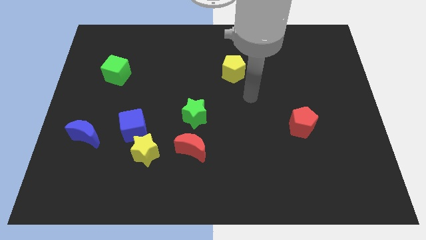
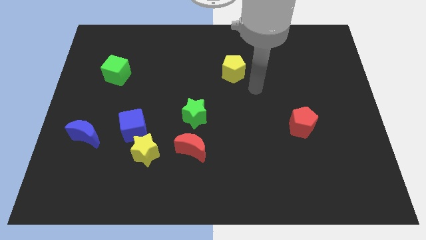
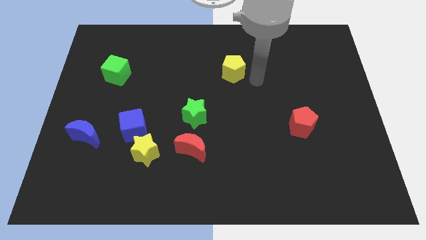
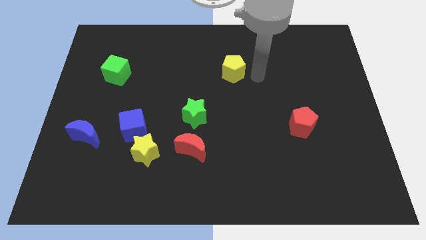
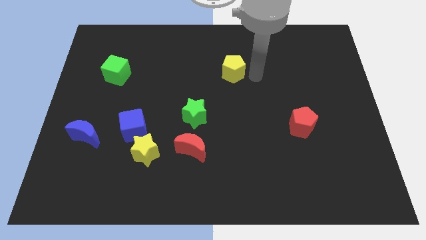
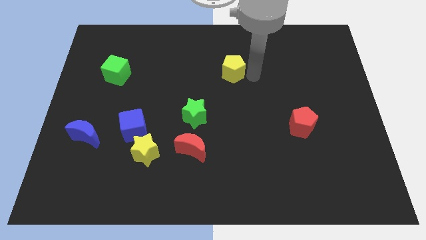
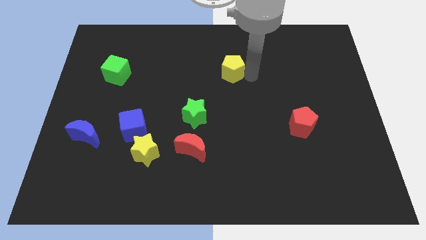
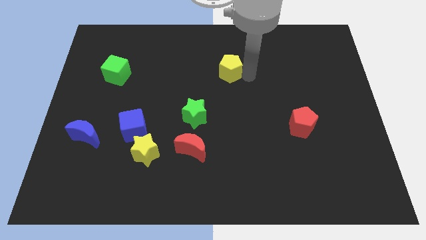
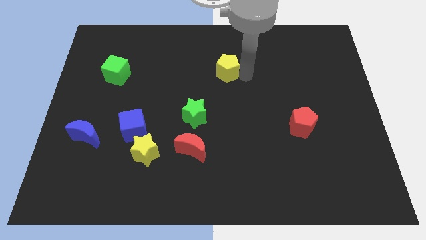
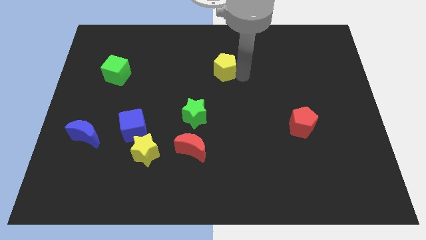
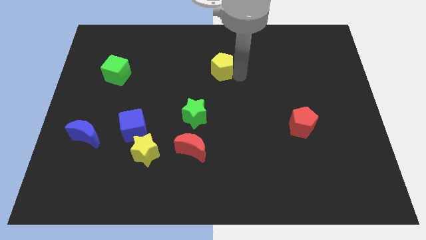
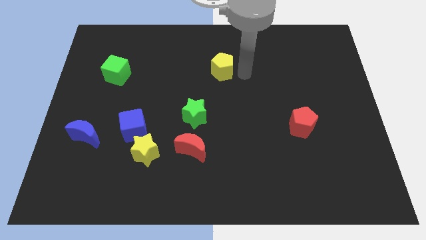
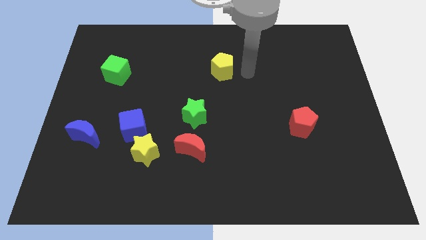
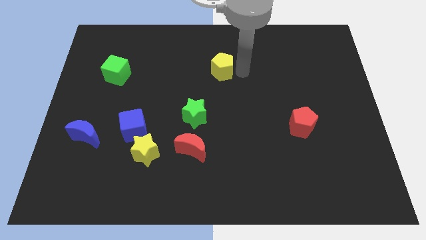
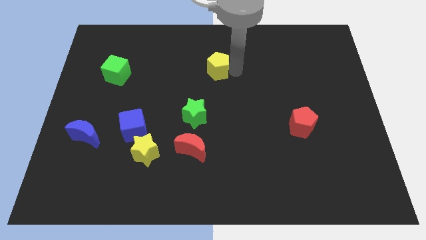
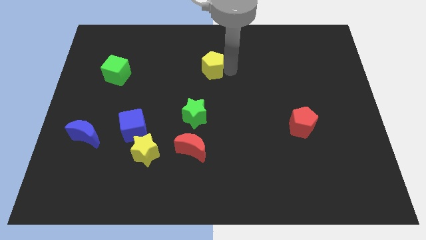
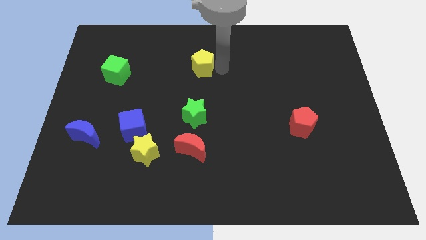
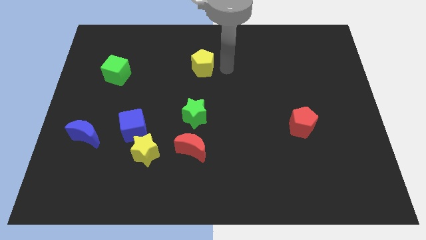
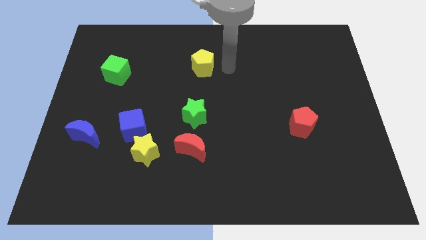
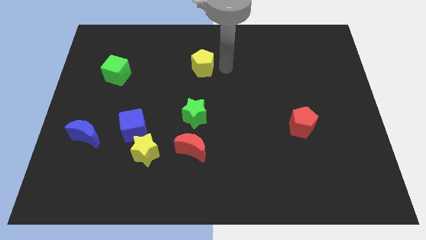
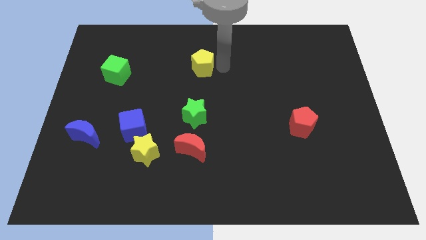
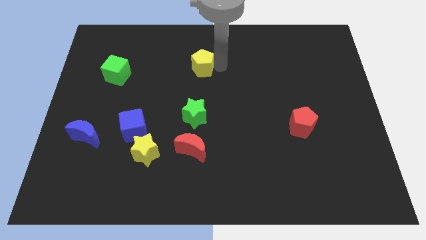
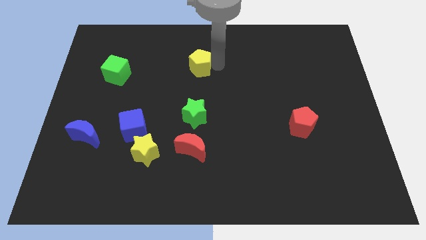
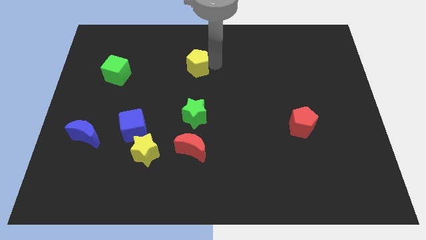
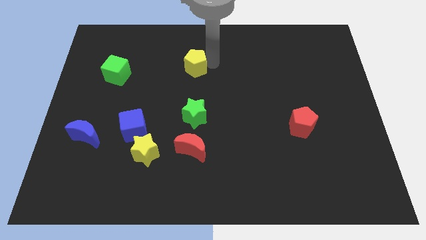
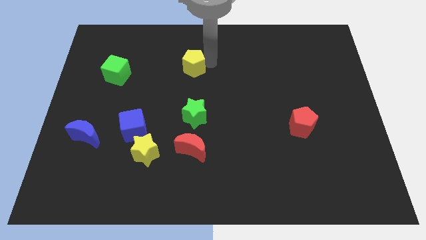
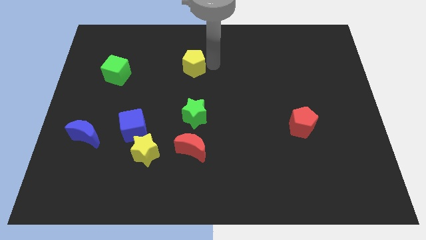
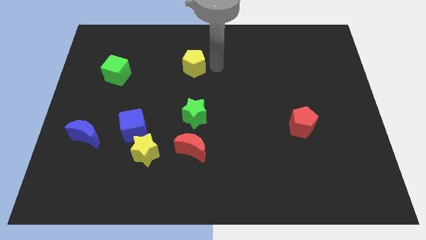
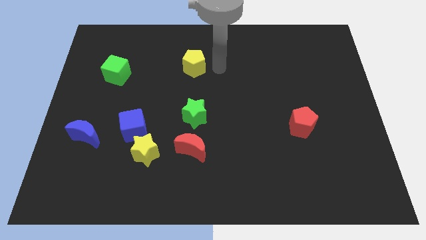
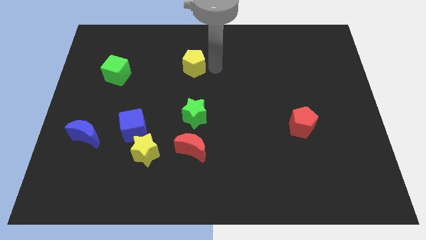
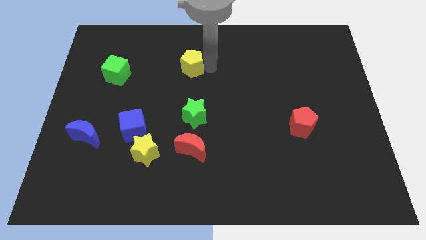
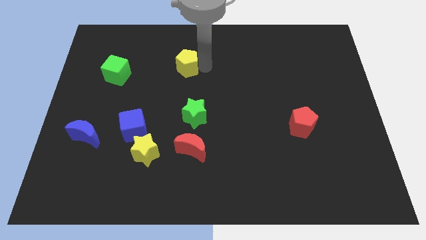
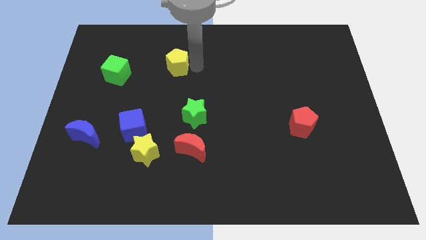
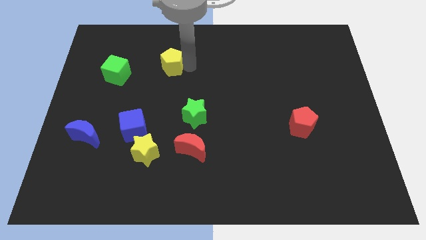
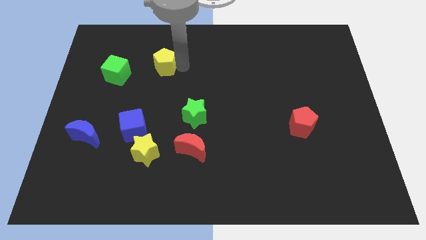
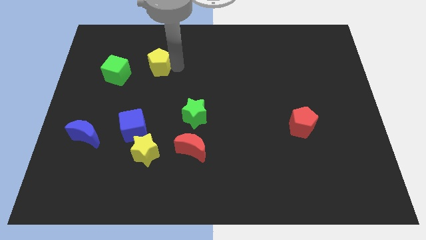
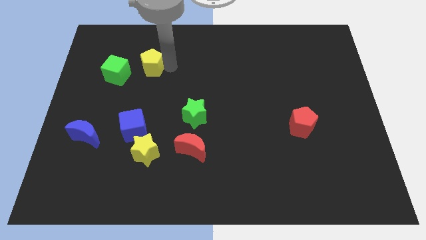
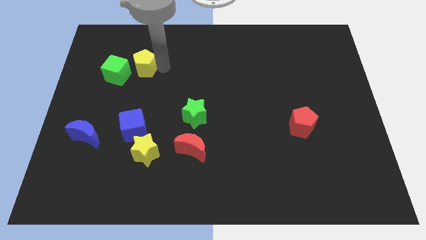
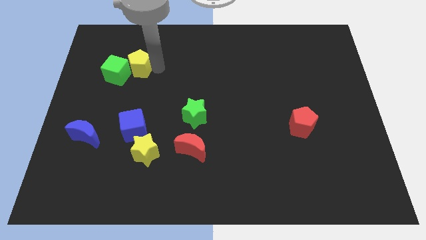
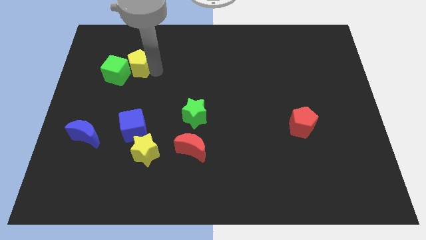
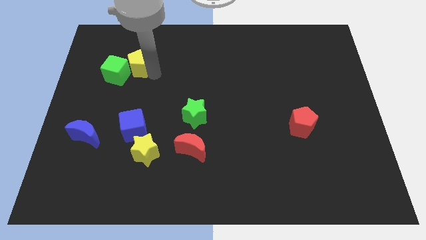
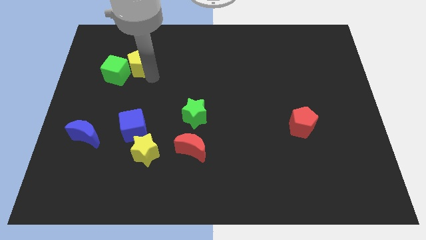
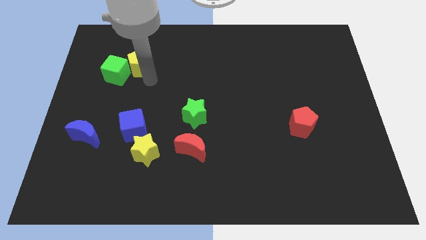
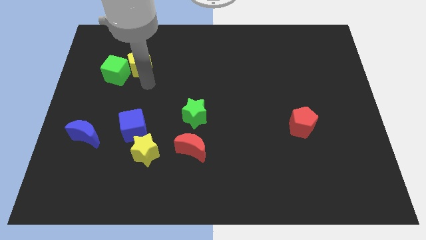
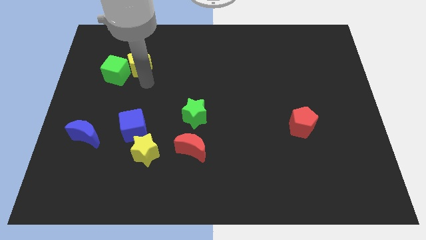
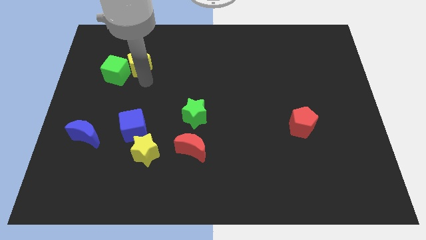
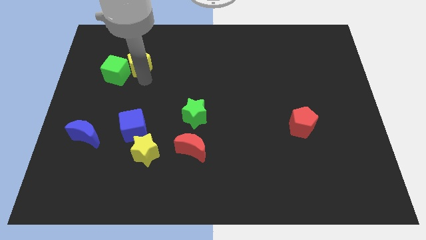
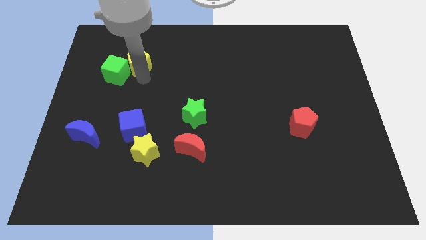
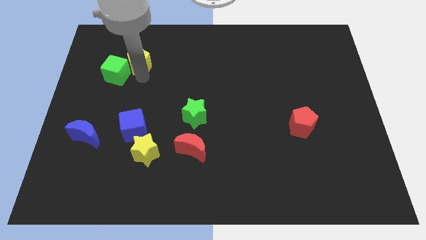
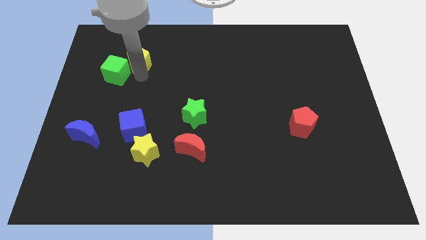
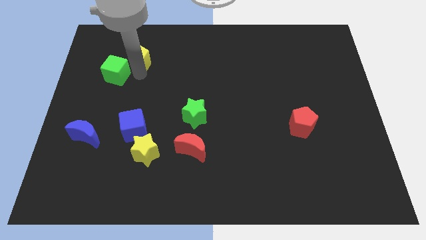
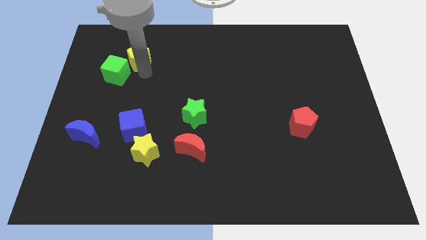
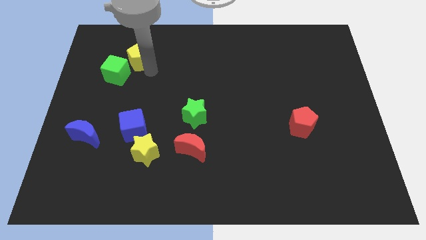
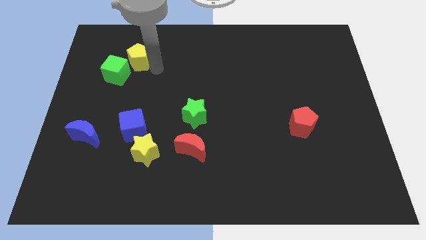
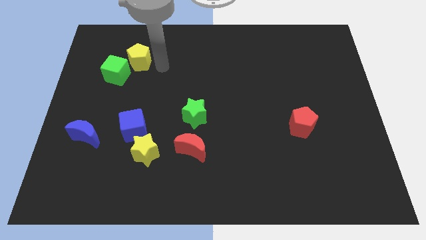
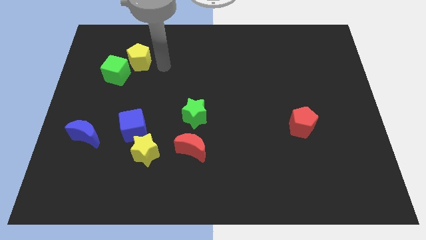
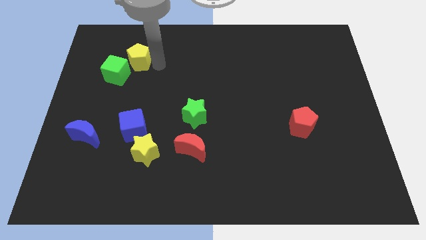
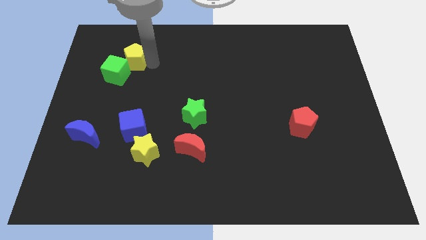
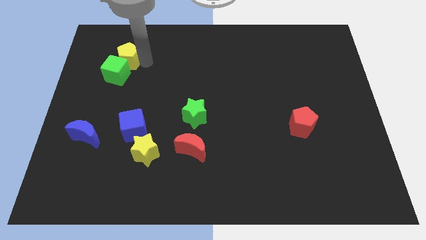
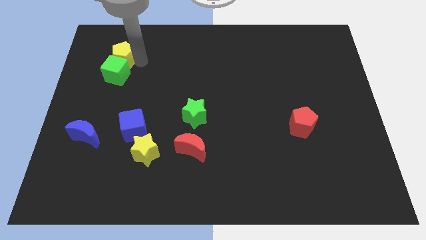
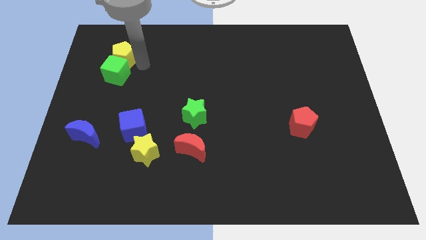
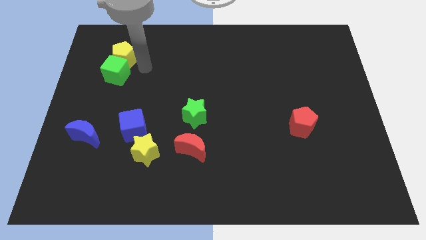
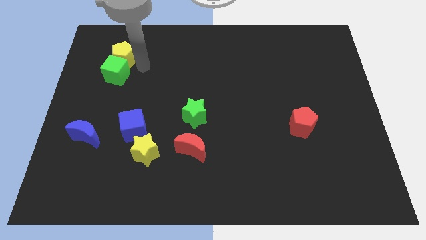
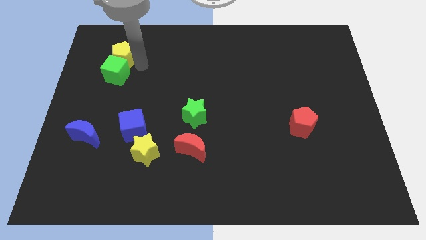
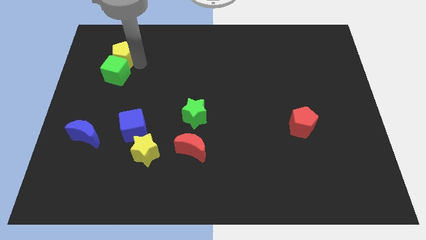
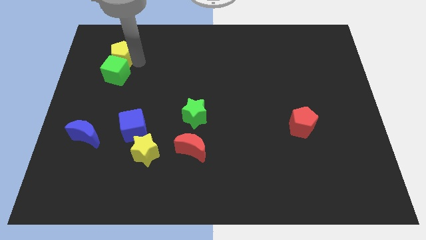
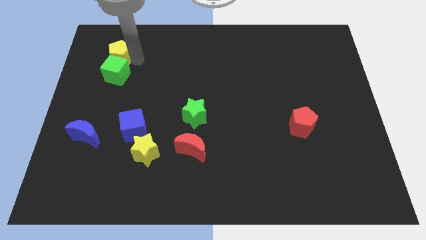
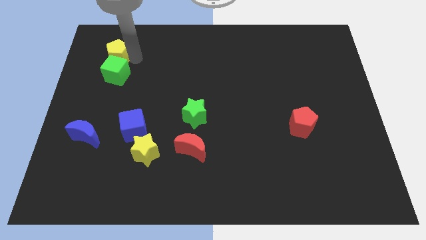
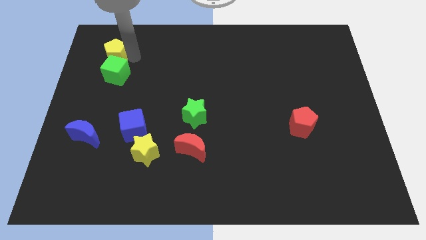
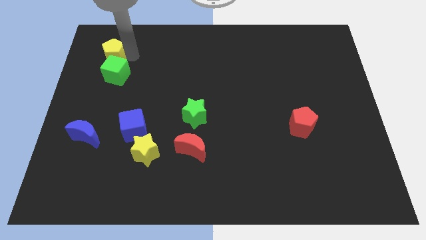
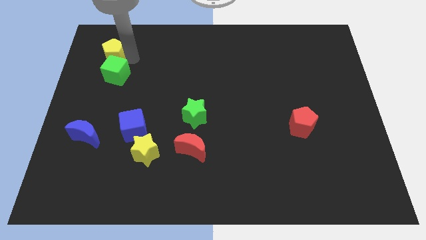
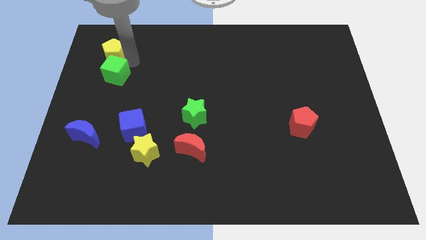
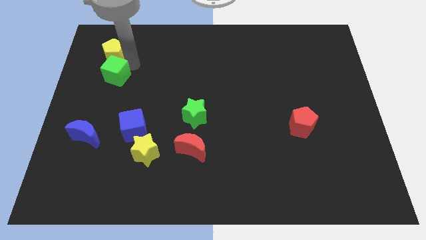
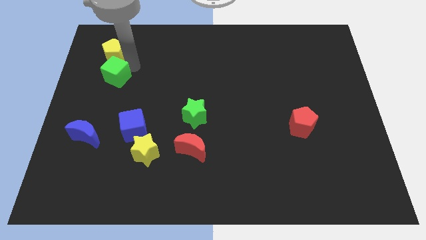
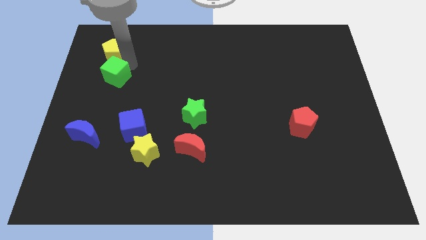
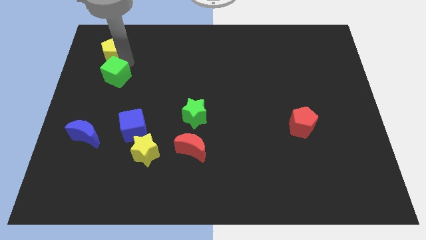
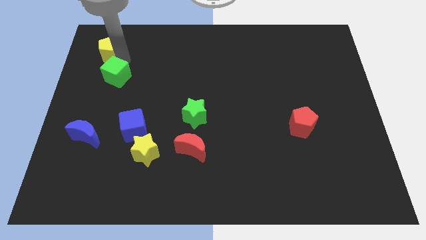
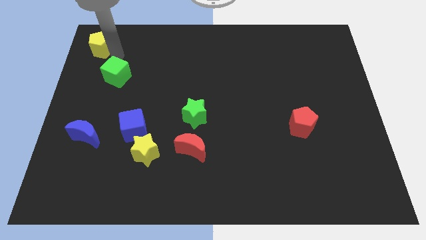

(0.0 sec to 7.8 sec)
put the yellow pentagon to the top left
